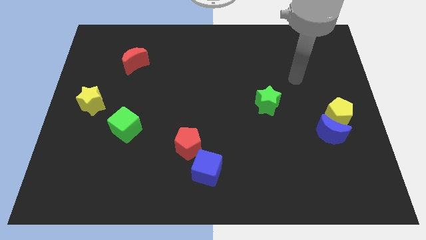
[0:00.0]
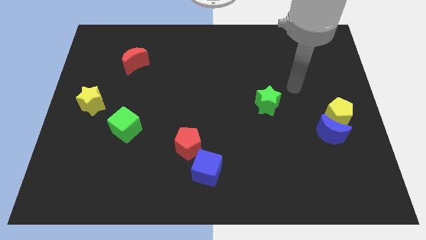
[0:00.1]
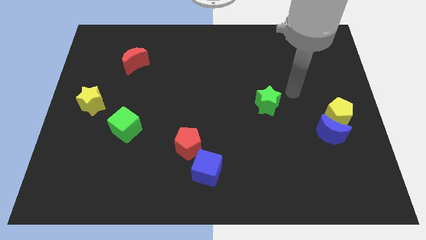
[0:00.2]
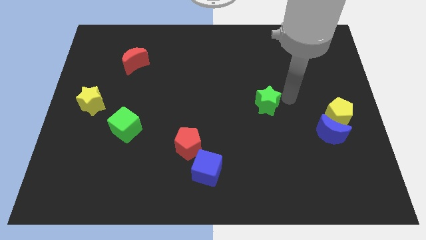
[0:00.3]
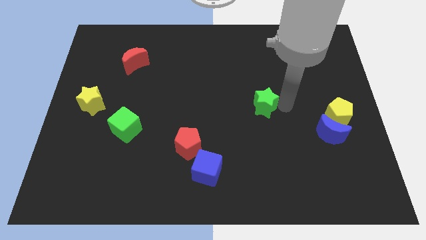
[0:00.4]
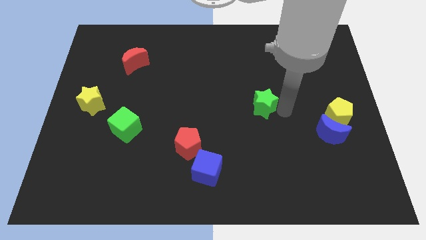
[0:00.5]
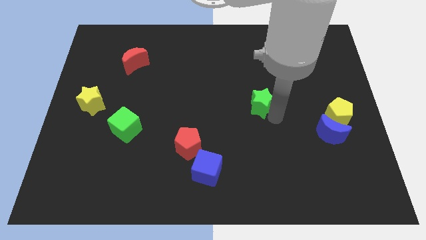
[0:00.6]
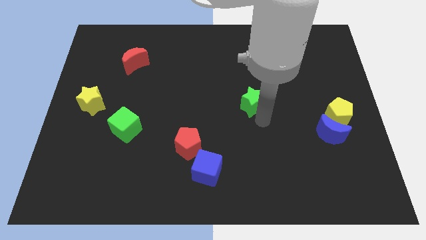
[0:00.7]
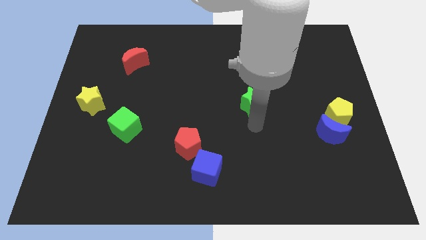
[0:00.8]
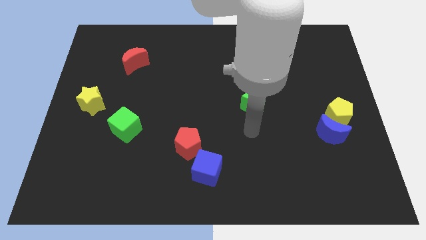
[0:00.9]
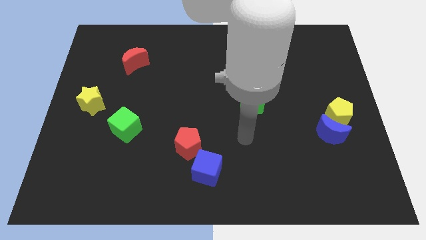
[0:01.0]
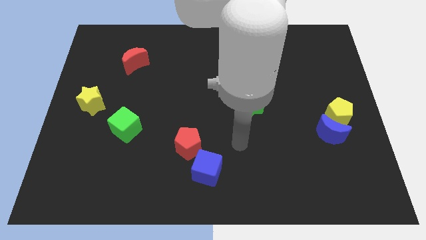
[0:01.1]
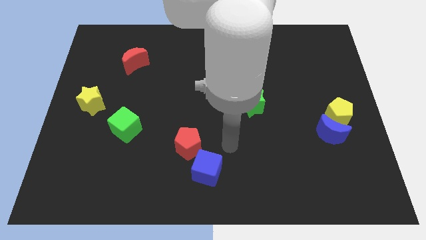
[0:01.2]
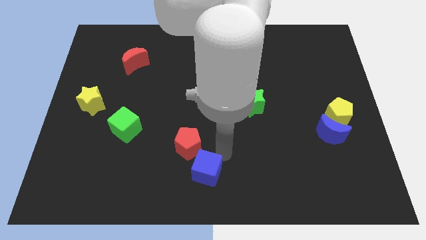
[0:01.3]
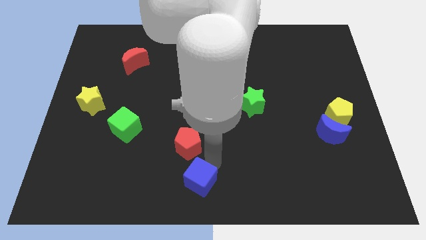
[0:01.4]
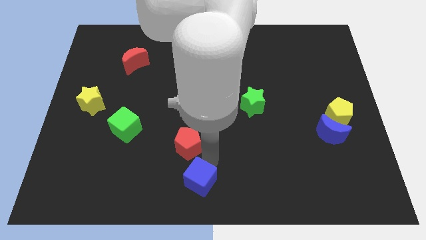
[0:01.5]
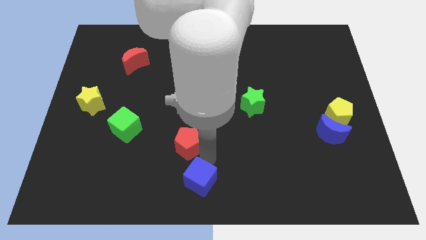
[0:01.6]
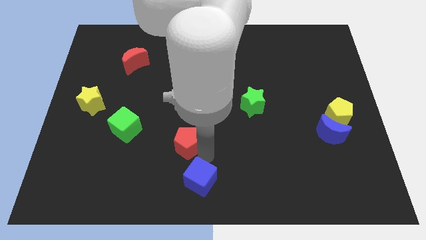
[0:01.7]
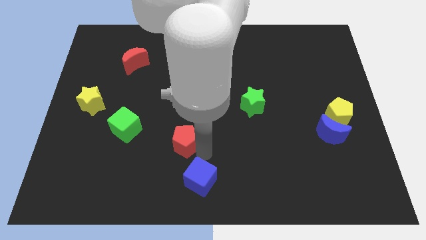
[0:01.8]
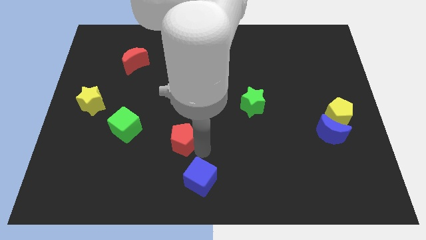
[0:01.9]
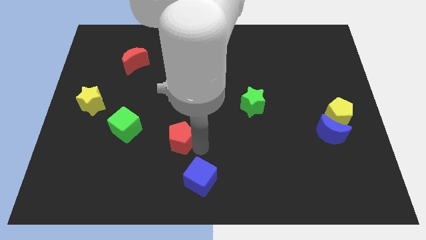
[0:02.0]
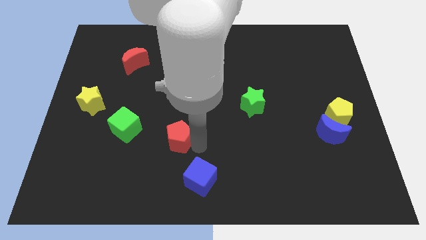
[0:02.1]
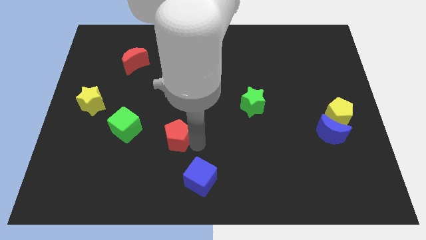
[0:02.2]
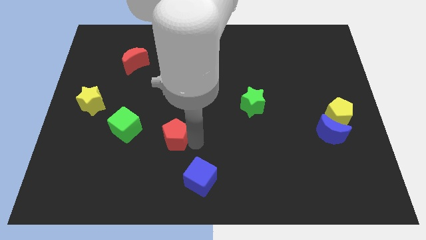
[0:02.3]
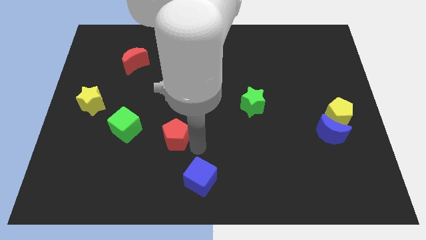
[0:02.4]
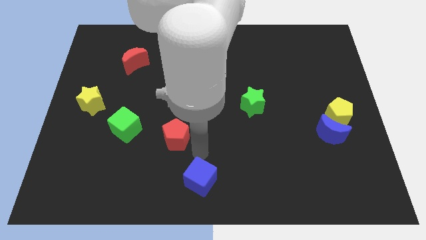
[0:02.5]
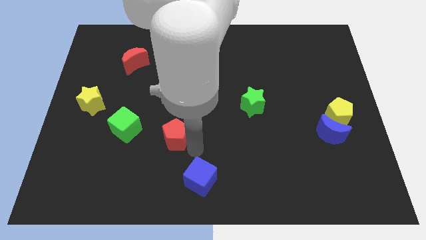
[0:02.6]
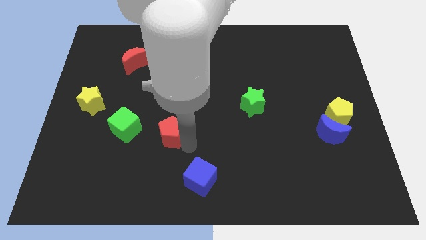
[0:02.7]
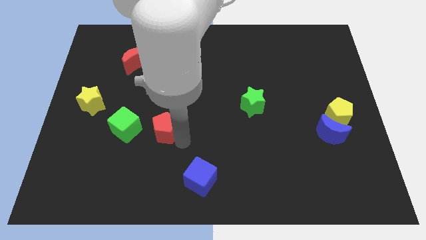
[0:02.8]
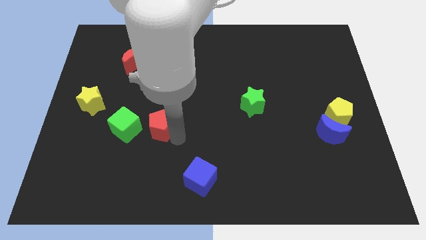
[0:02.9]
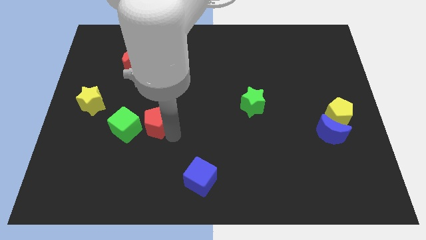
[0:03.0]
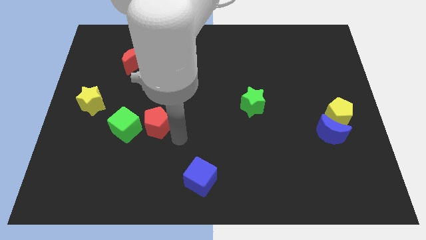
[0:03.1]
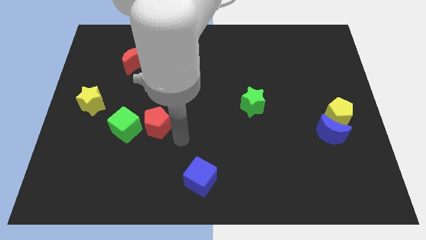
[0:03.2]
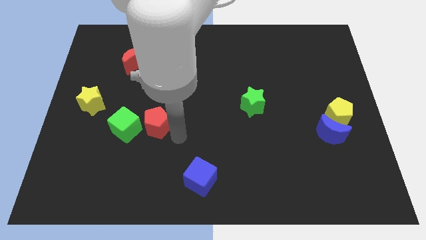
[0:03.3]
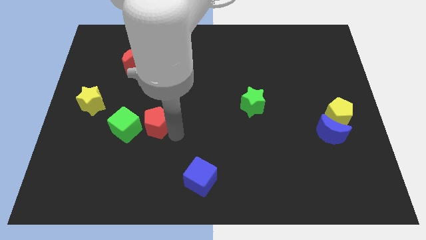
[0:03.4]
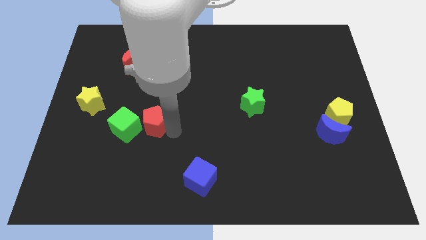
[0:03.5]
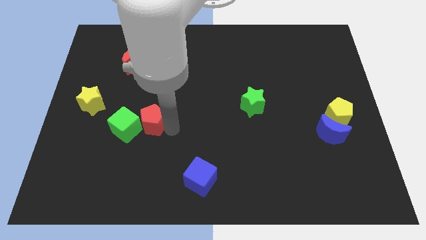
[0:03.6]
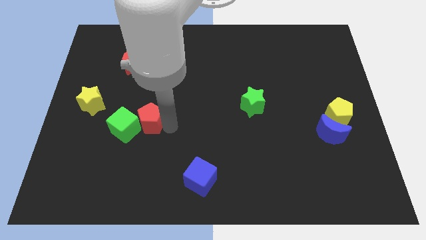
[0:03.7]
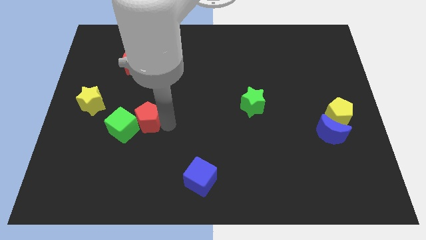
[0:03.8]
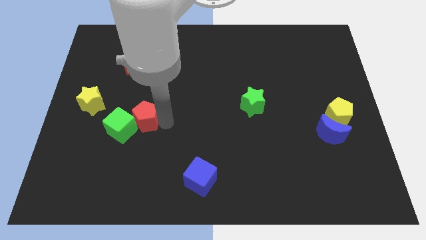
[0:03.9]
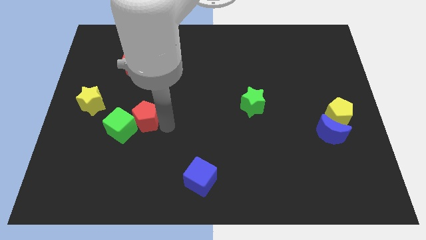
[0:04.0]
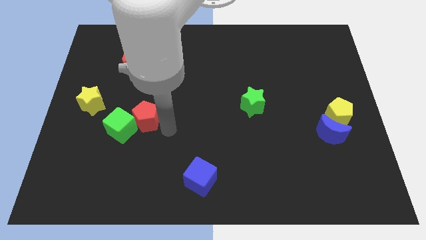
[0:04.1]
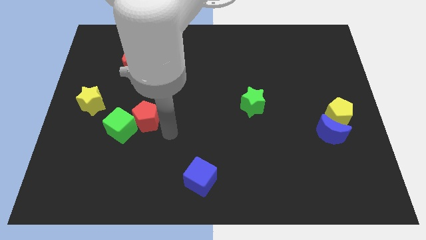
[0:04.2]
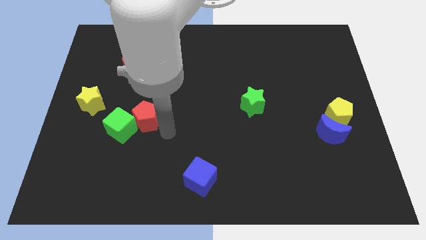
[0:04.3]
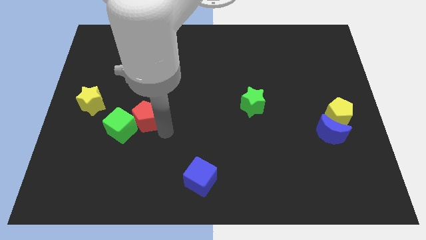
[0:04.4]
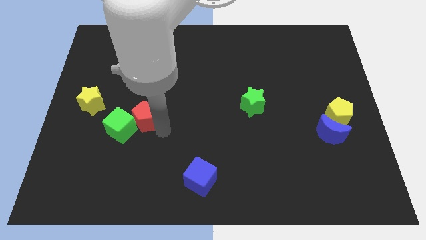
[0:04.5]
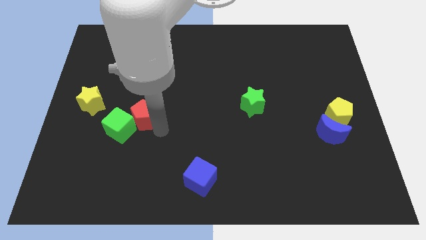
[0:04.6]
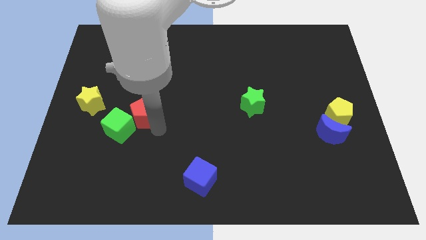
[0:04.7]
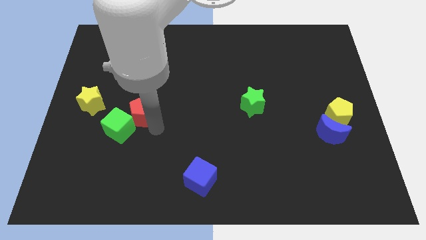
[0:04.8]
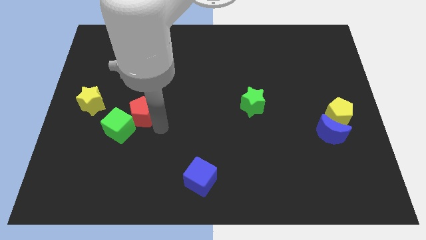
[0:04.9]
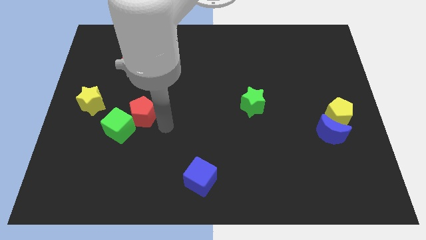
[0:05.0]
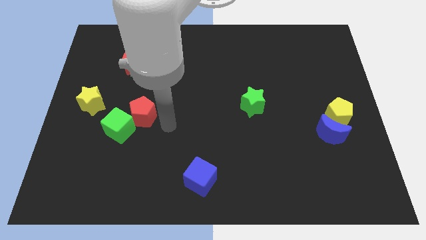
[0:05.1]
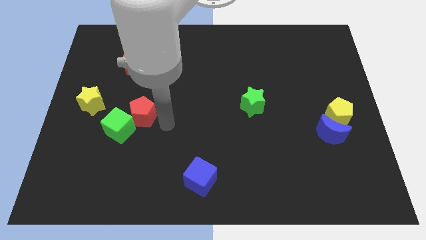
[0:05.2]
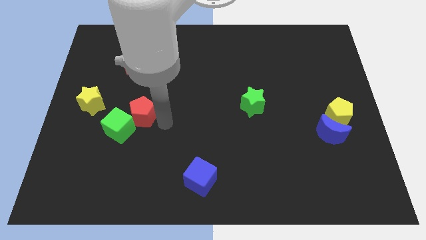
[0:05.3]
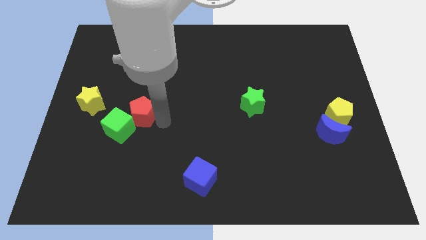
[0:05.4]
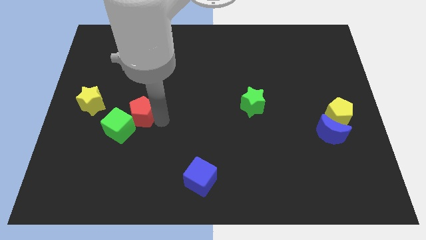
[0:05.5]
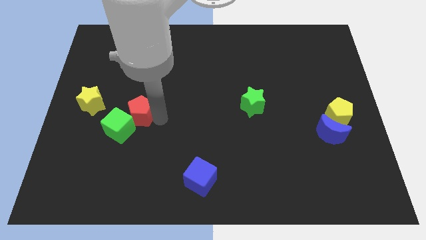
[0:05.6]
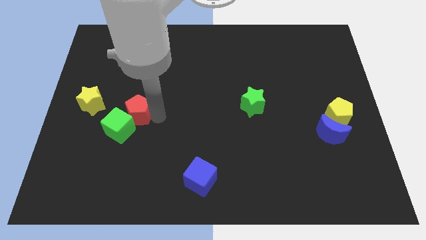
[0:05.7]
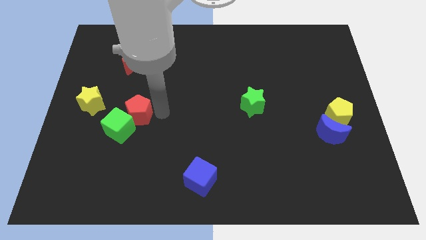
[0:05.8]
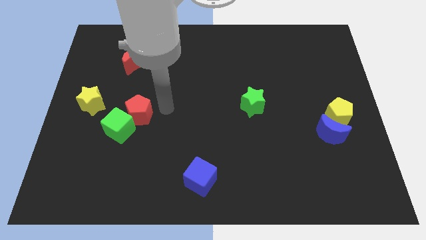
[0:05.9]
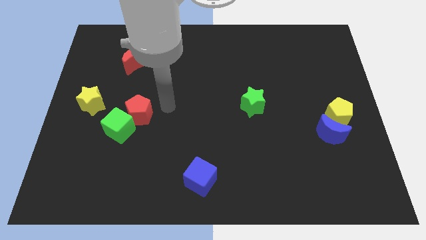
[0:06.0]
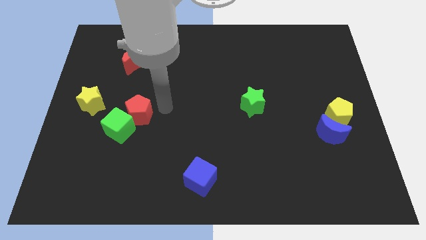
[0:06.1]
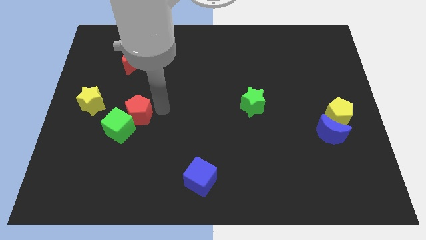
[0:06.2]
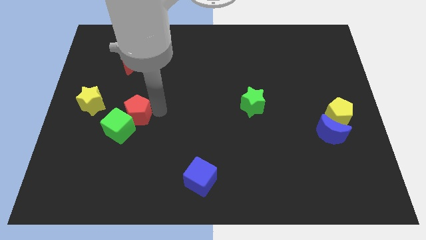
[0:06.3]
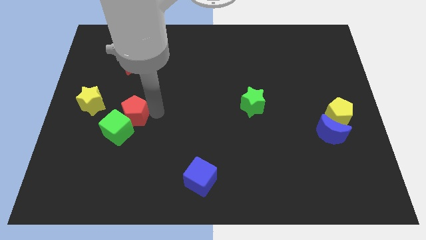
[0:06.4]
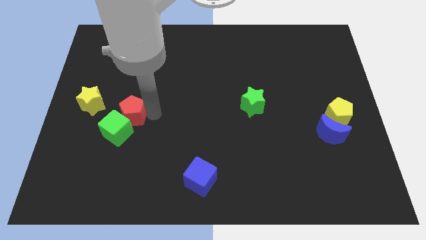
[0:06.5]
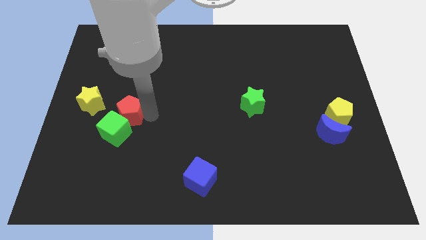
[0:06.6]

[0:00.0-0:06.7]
push the red pentagon to the bottom right of the yellow star
